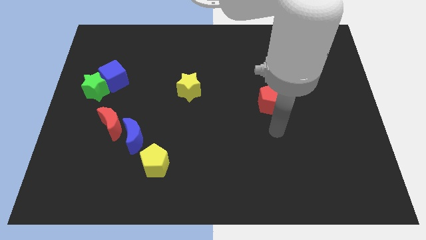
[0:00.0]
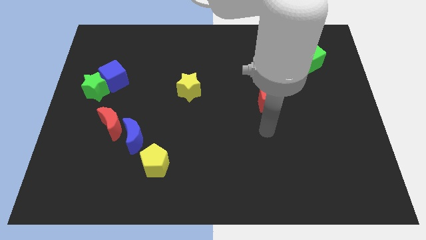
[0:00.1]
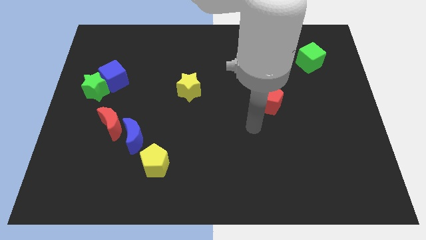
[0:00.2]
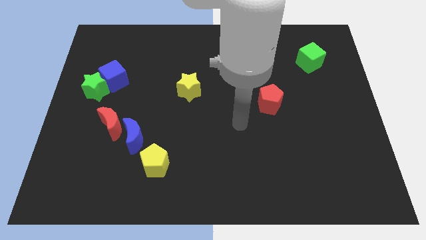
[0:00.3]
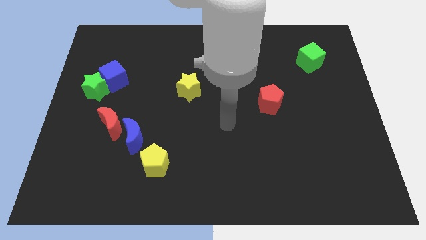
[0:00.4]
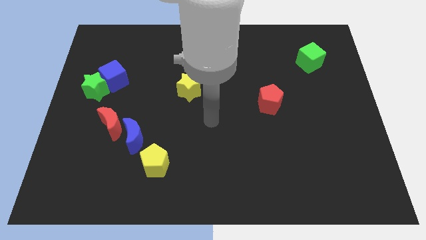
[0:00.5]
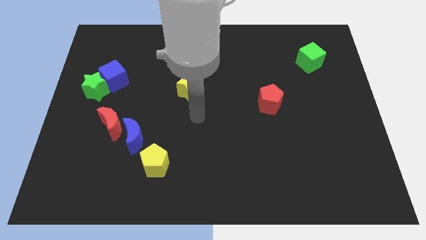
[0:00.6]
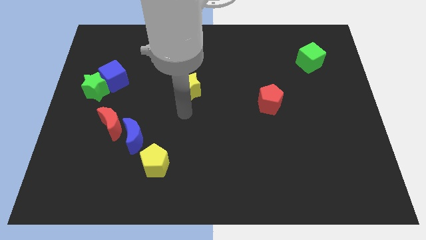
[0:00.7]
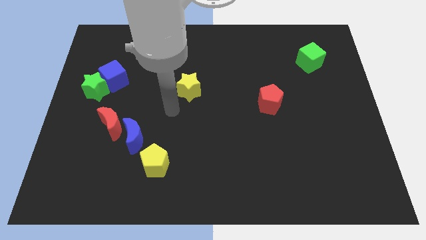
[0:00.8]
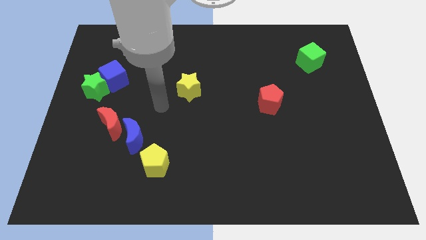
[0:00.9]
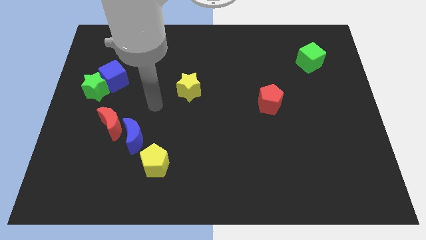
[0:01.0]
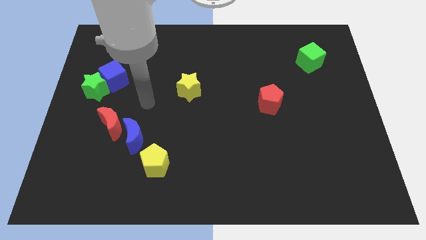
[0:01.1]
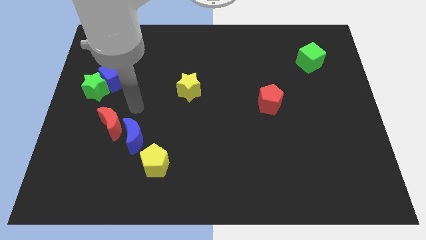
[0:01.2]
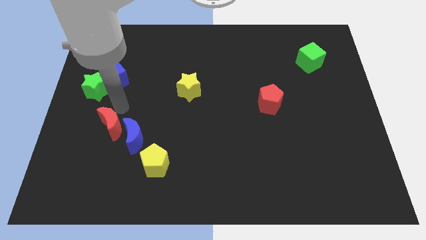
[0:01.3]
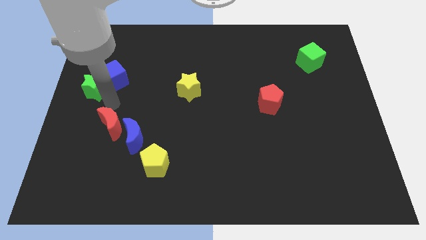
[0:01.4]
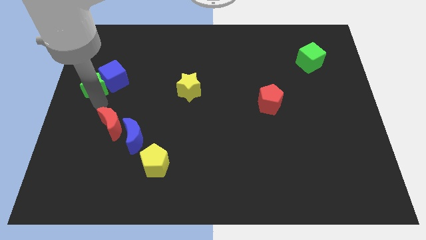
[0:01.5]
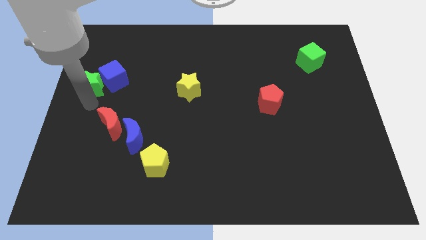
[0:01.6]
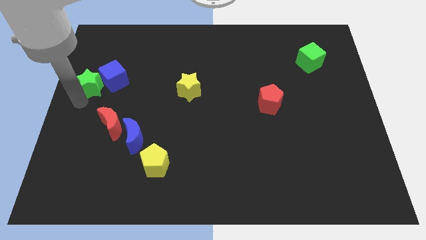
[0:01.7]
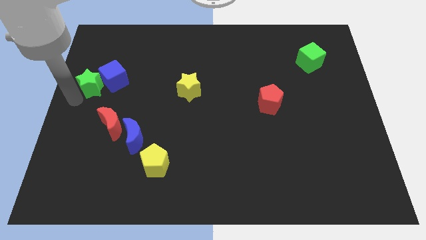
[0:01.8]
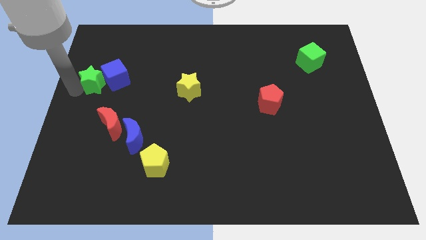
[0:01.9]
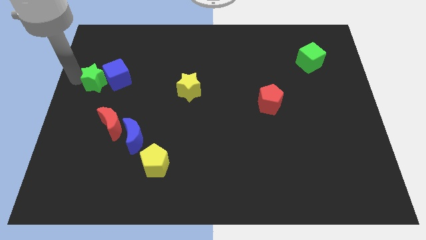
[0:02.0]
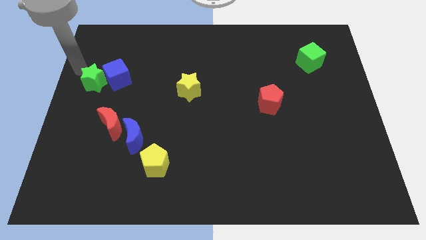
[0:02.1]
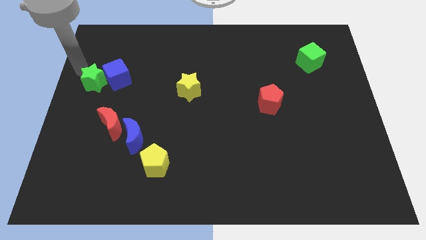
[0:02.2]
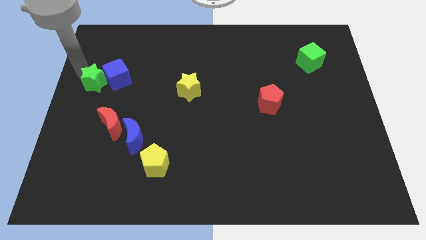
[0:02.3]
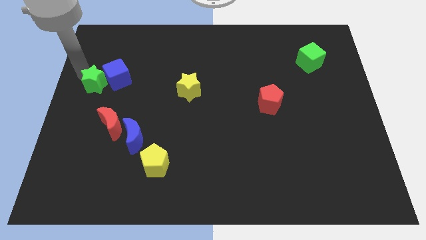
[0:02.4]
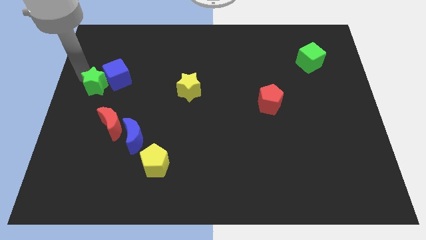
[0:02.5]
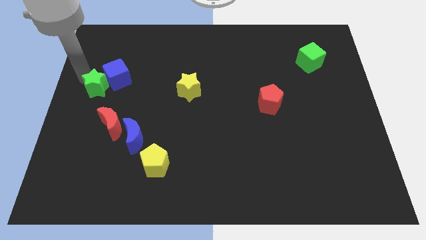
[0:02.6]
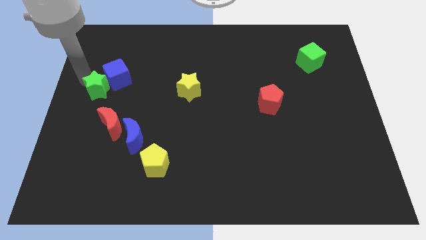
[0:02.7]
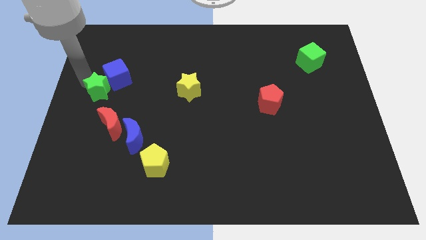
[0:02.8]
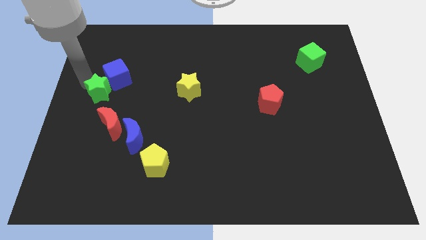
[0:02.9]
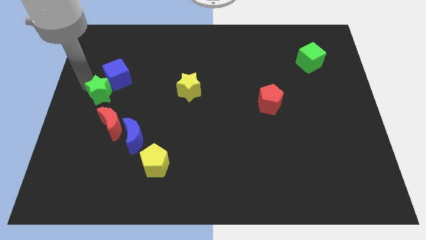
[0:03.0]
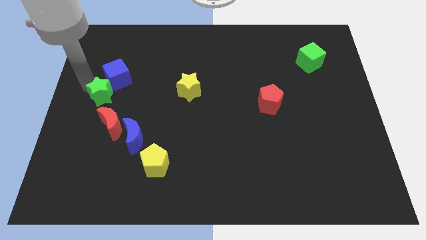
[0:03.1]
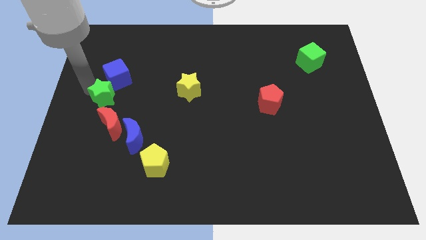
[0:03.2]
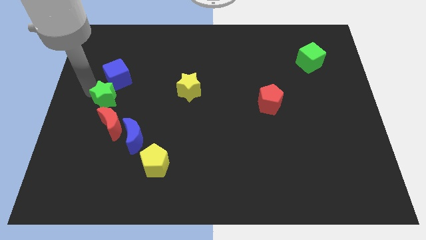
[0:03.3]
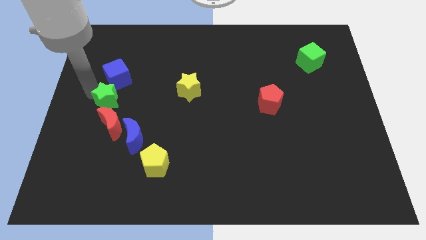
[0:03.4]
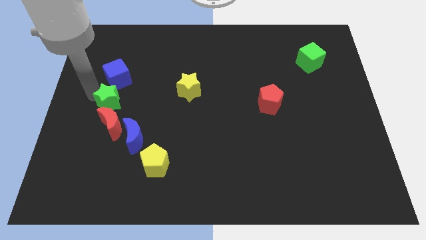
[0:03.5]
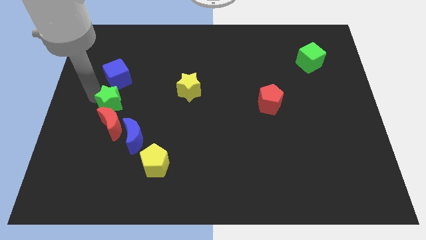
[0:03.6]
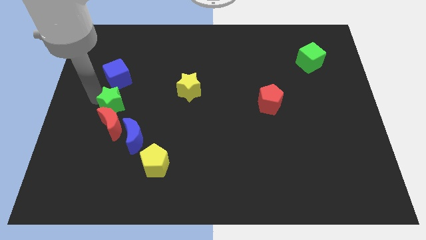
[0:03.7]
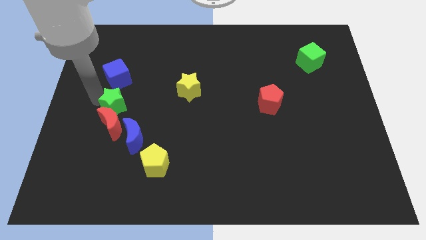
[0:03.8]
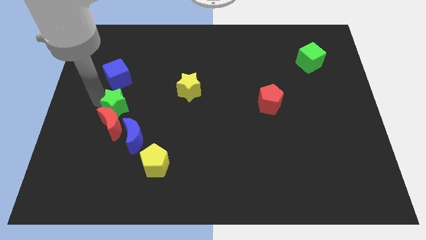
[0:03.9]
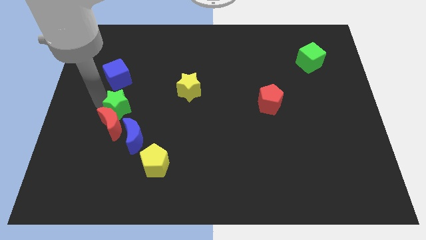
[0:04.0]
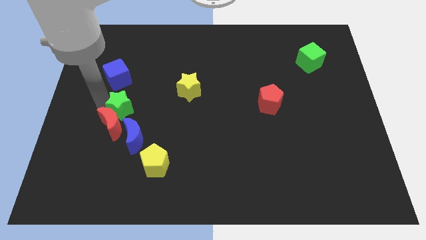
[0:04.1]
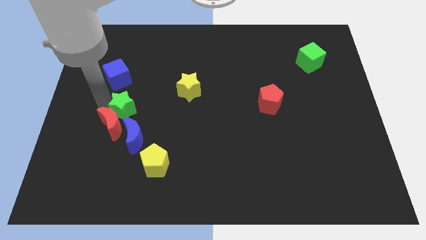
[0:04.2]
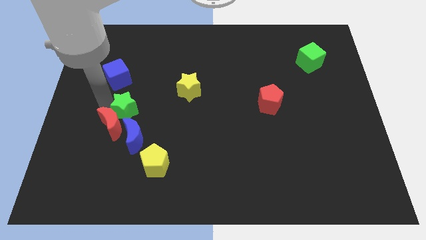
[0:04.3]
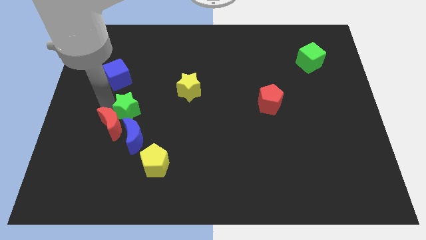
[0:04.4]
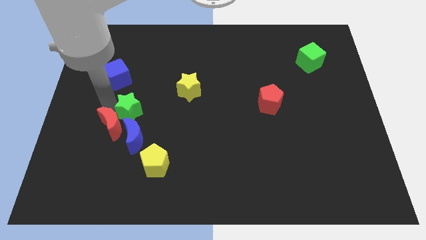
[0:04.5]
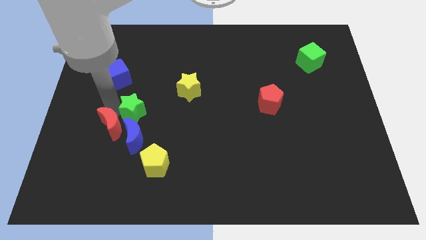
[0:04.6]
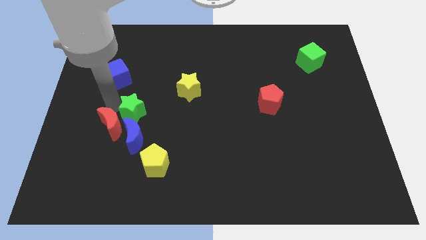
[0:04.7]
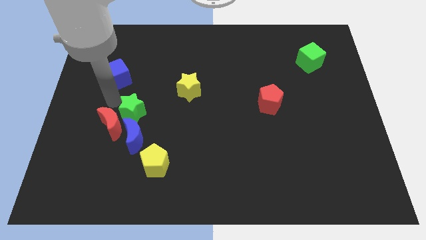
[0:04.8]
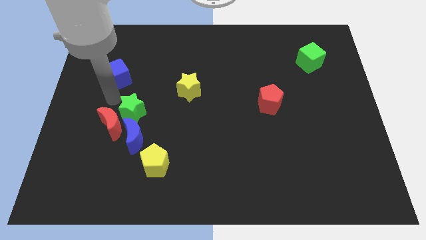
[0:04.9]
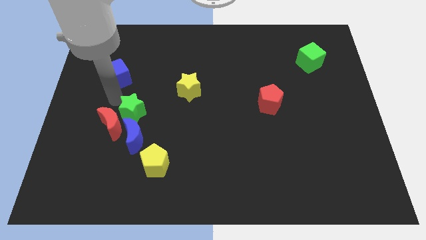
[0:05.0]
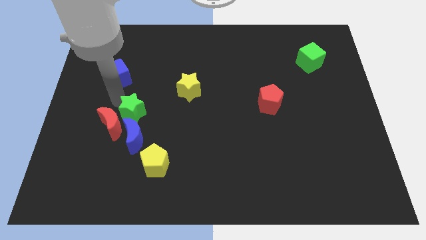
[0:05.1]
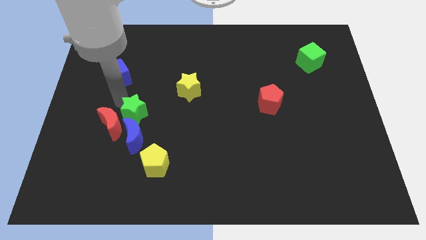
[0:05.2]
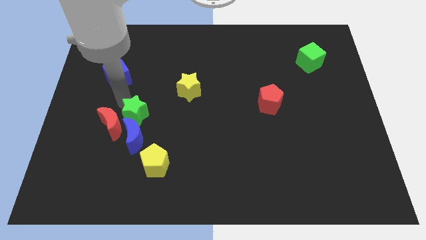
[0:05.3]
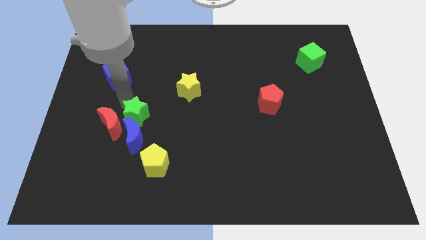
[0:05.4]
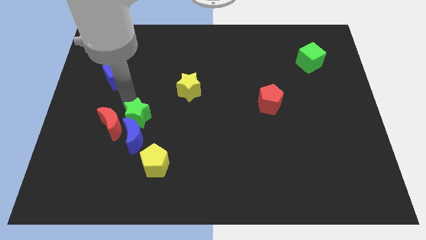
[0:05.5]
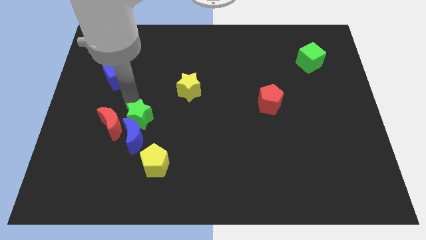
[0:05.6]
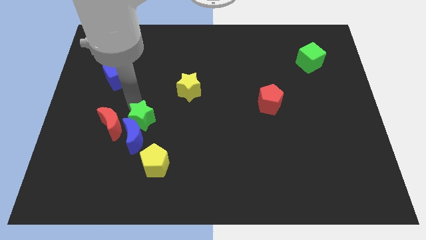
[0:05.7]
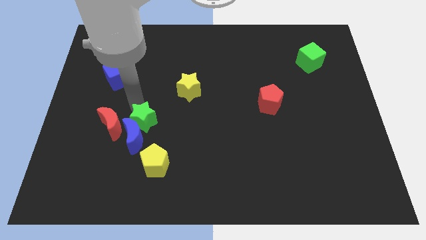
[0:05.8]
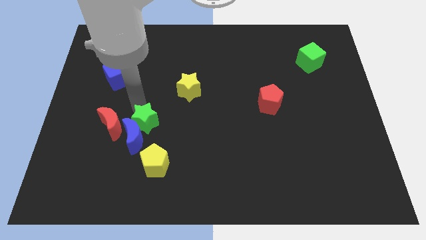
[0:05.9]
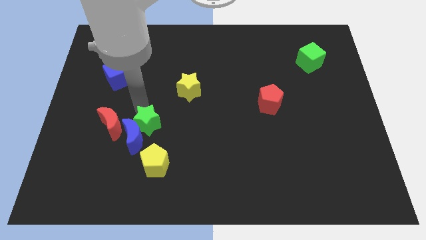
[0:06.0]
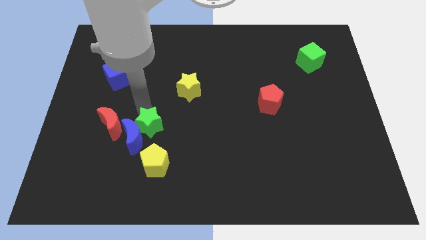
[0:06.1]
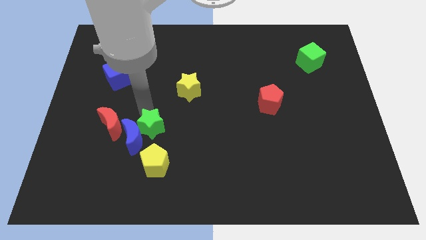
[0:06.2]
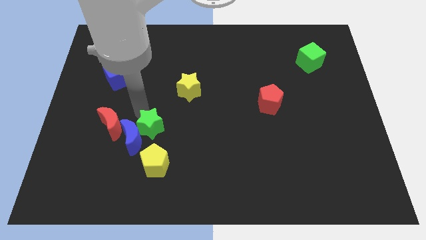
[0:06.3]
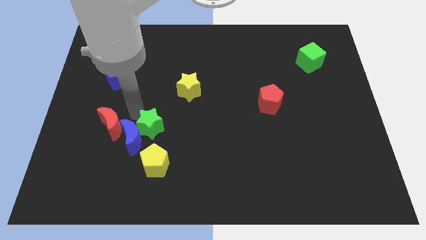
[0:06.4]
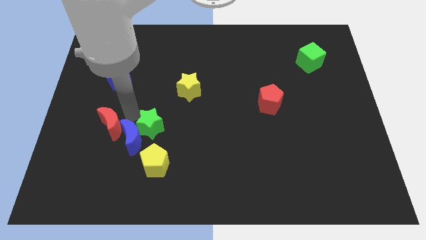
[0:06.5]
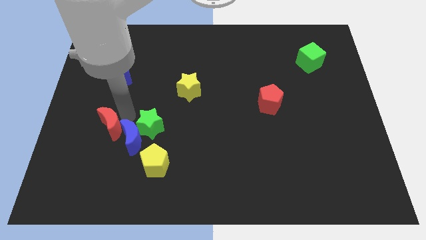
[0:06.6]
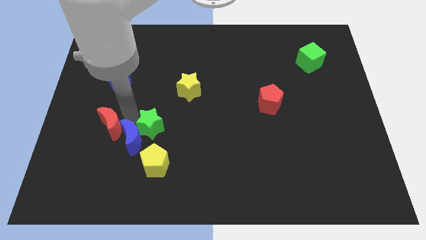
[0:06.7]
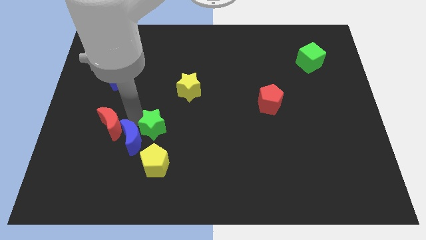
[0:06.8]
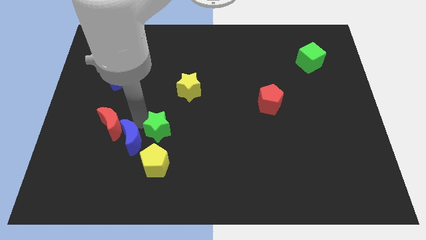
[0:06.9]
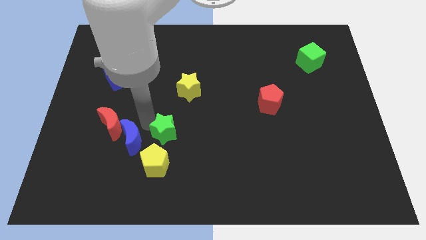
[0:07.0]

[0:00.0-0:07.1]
push the green star downwards and then to the right

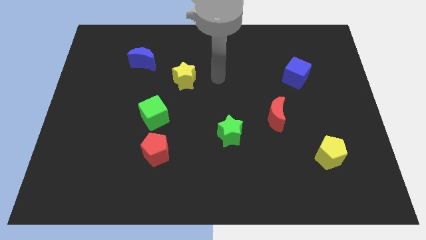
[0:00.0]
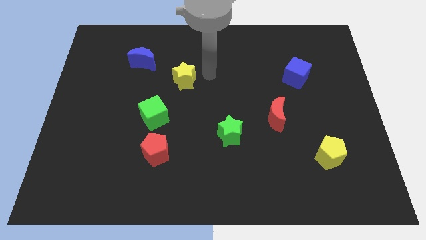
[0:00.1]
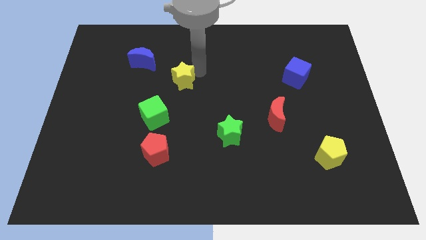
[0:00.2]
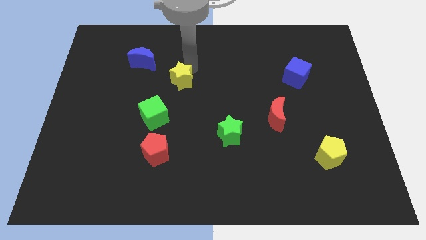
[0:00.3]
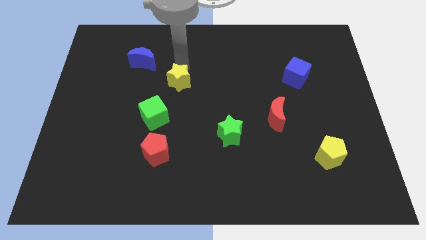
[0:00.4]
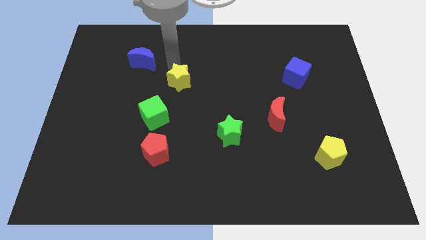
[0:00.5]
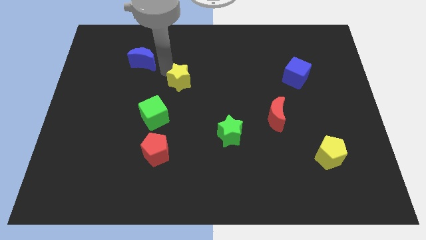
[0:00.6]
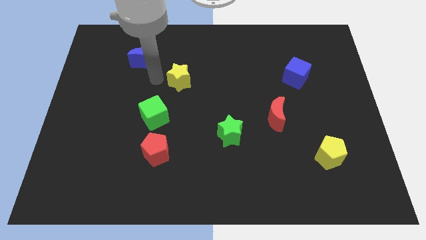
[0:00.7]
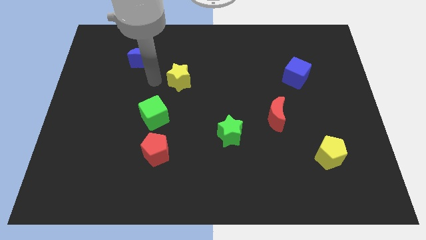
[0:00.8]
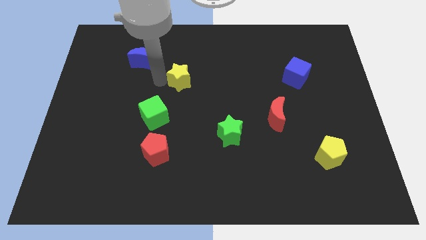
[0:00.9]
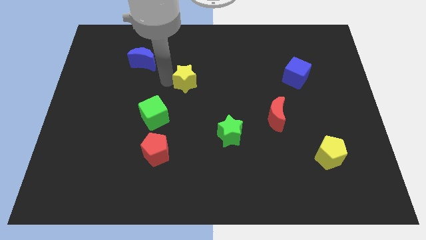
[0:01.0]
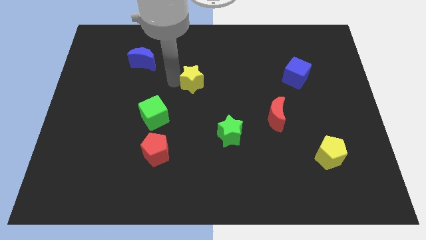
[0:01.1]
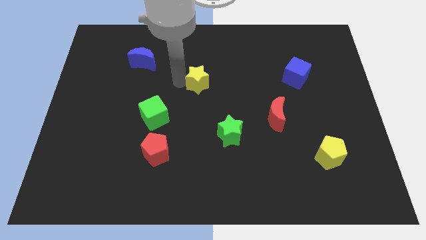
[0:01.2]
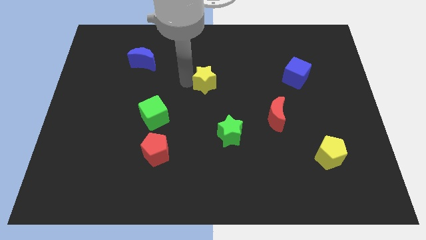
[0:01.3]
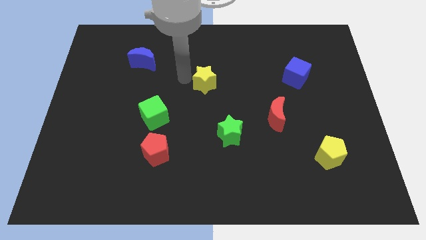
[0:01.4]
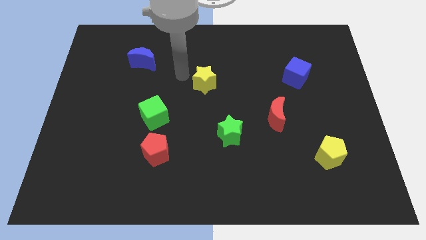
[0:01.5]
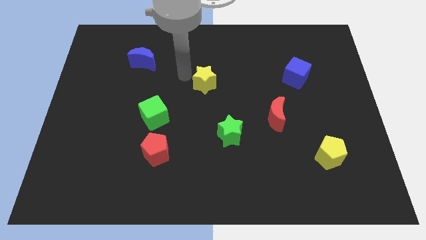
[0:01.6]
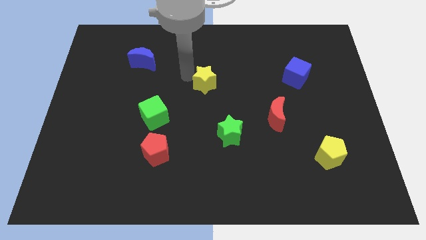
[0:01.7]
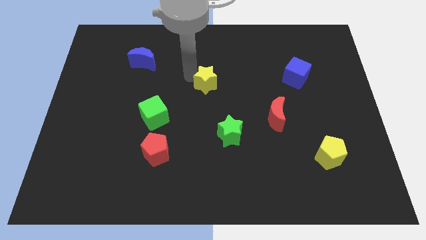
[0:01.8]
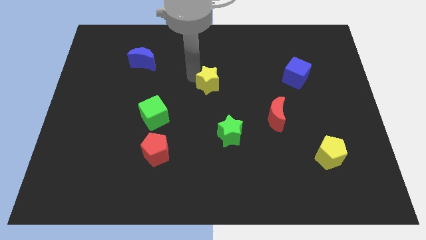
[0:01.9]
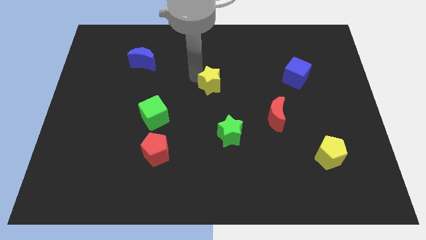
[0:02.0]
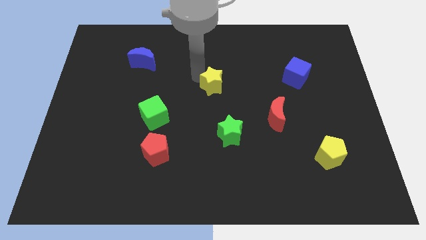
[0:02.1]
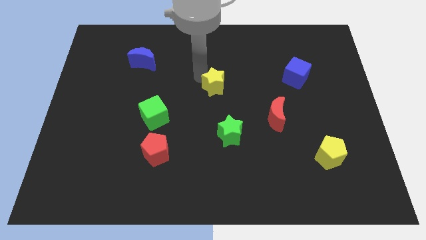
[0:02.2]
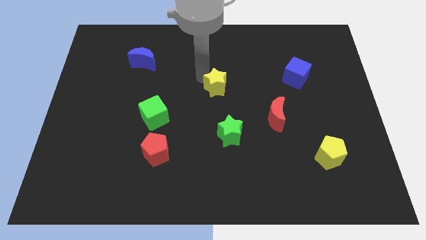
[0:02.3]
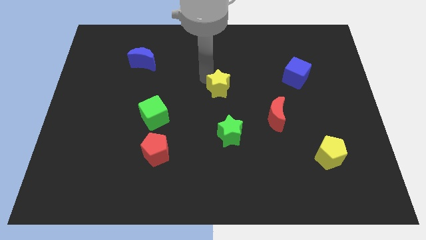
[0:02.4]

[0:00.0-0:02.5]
slightly slide the yellow star down and right diagonally
